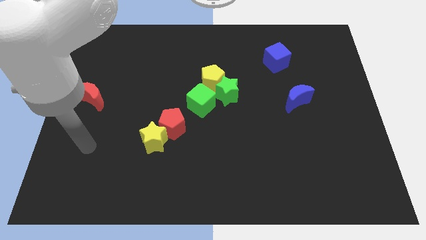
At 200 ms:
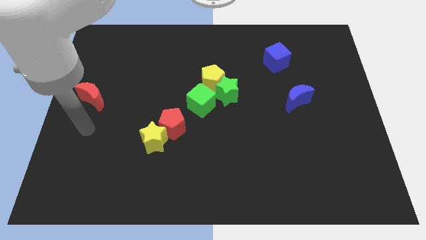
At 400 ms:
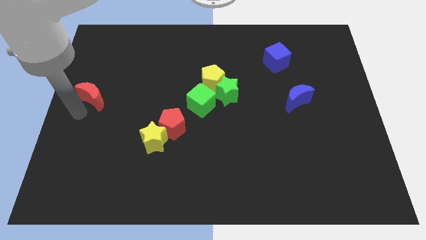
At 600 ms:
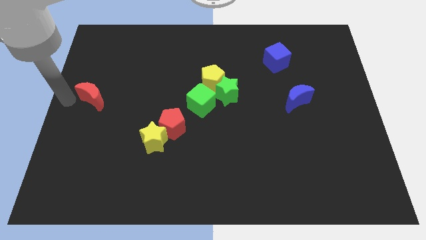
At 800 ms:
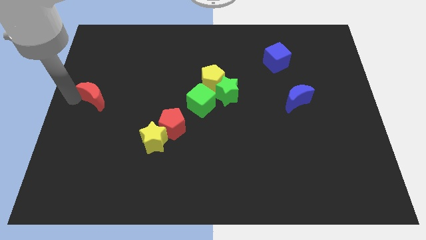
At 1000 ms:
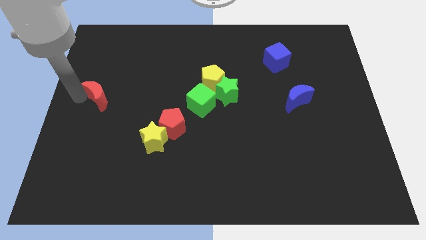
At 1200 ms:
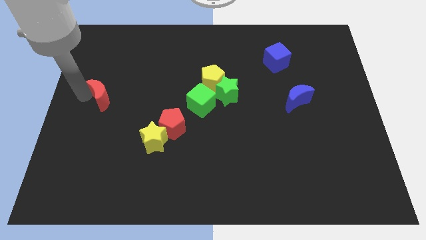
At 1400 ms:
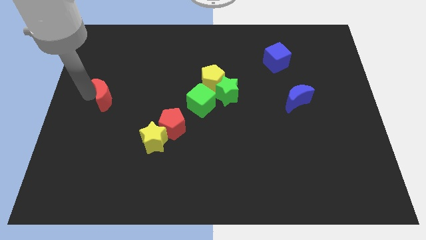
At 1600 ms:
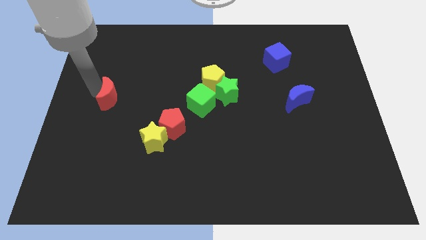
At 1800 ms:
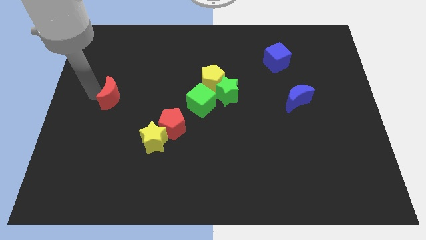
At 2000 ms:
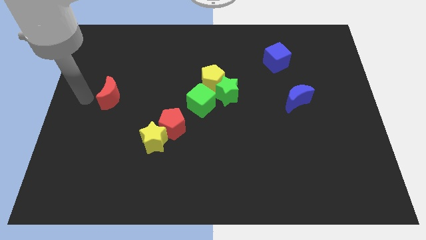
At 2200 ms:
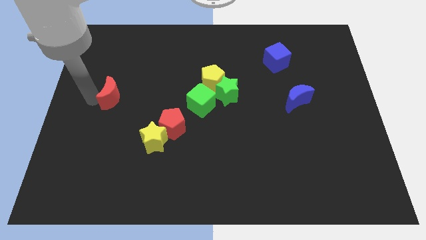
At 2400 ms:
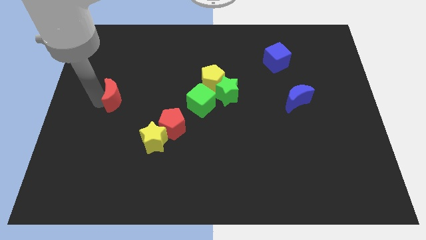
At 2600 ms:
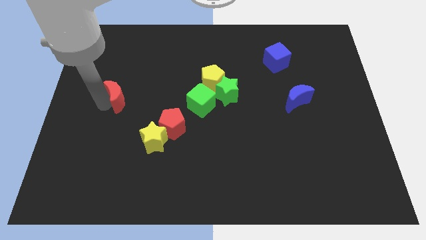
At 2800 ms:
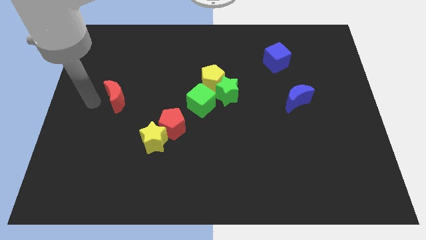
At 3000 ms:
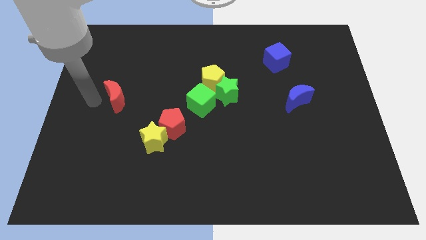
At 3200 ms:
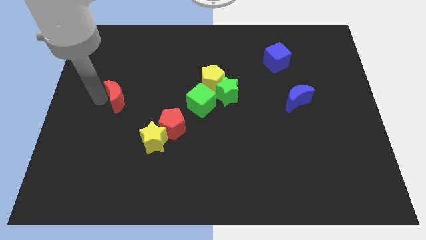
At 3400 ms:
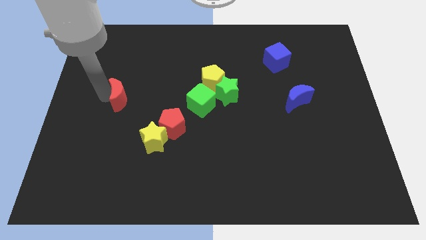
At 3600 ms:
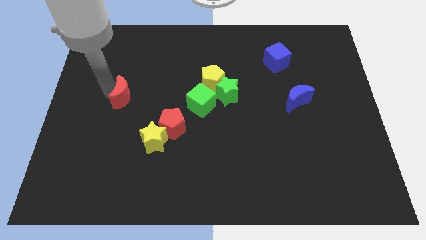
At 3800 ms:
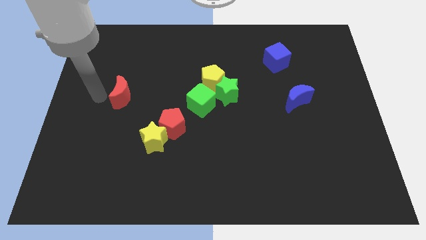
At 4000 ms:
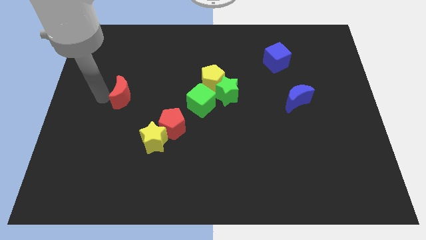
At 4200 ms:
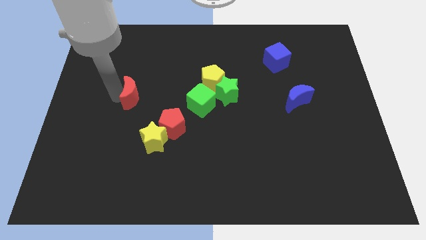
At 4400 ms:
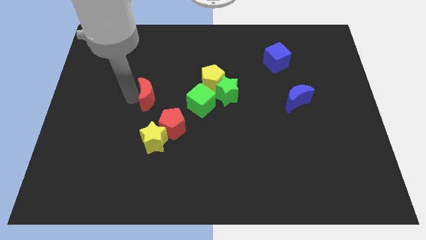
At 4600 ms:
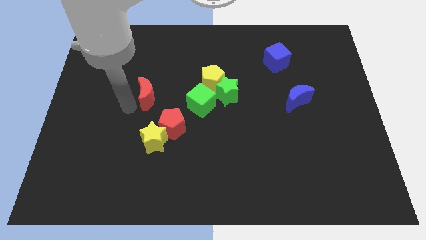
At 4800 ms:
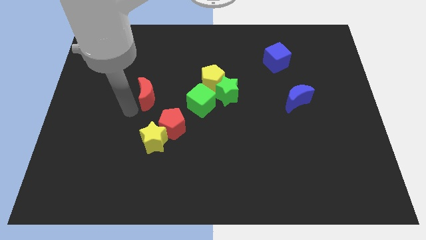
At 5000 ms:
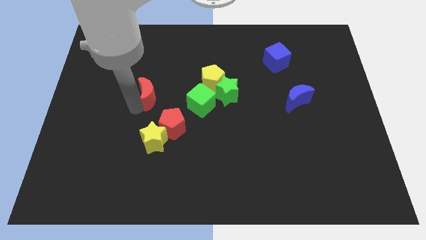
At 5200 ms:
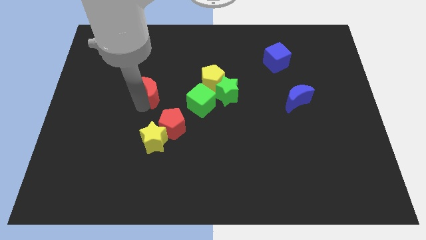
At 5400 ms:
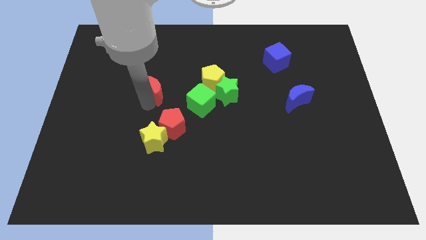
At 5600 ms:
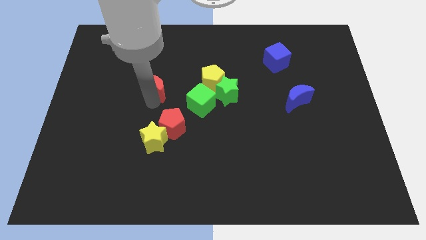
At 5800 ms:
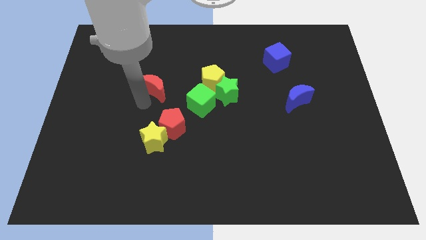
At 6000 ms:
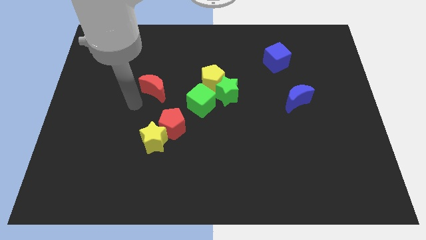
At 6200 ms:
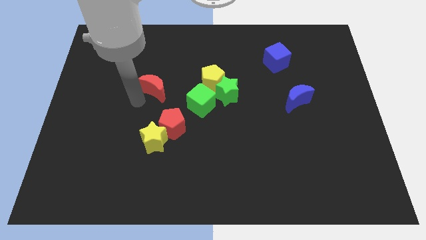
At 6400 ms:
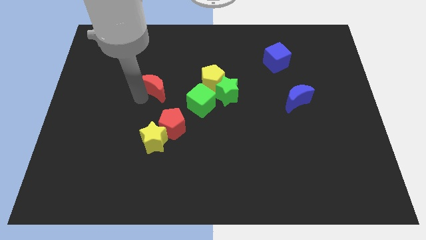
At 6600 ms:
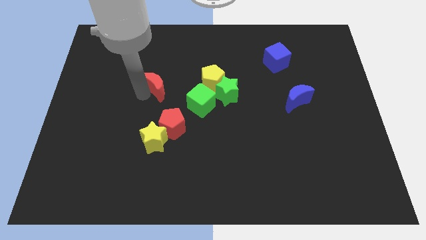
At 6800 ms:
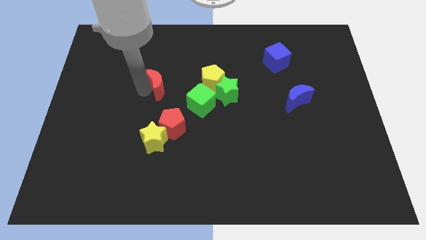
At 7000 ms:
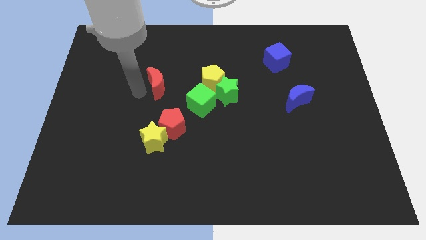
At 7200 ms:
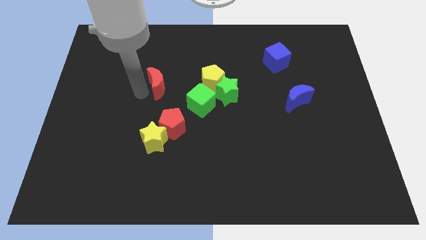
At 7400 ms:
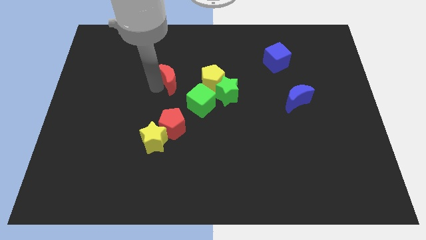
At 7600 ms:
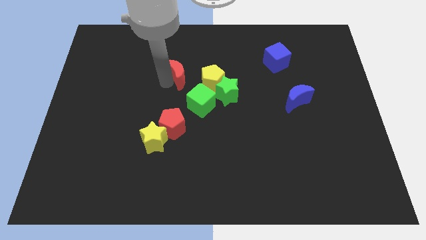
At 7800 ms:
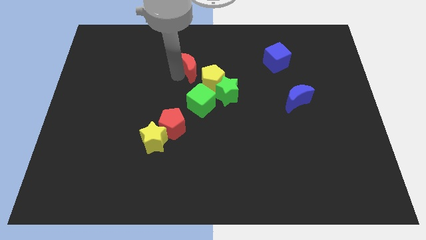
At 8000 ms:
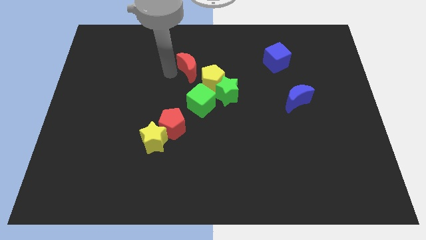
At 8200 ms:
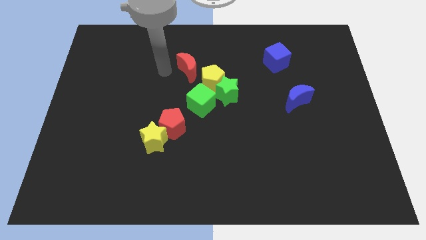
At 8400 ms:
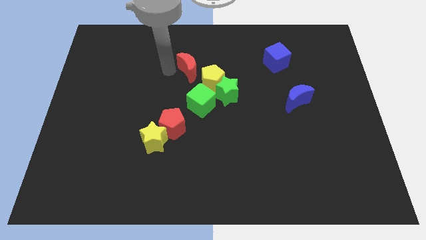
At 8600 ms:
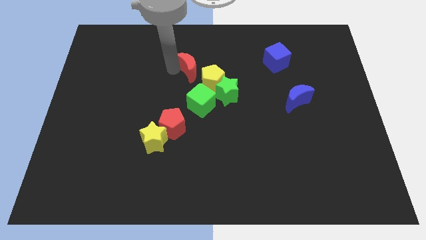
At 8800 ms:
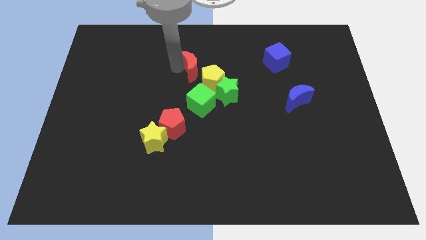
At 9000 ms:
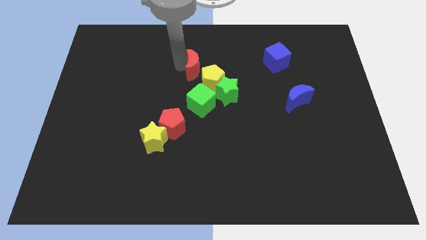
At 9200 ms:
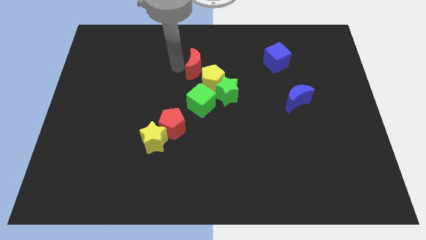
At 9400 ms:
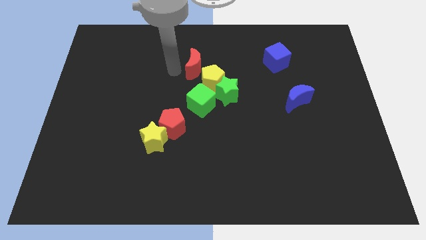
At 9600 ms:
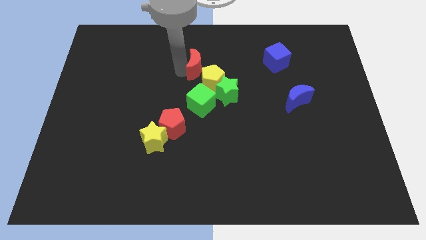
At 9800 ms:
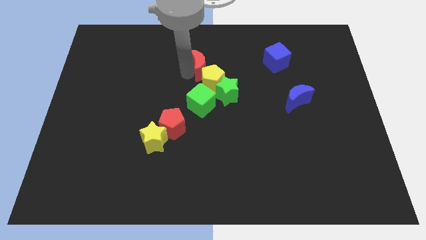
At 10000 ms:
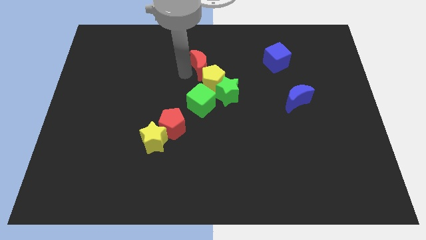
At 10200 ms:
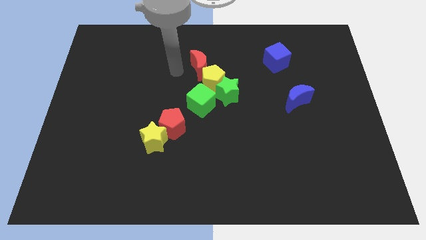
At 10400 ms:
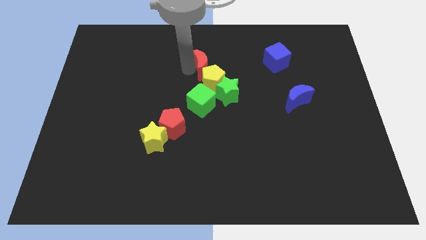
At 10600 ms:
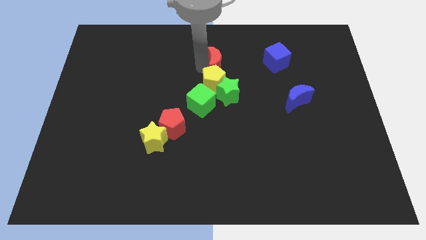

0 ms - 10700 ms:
move the red moon to the top of the green star

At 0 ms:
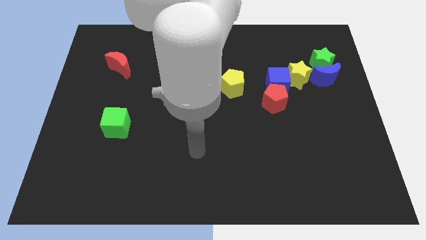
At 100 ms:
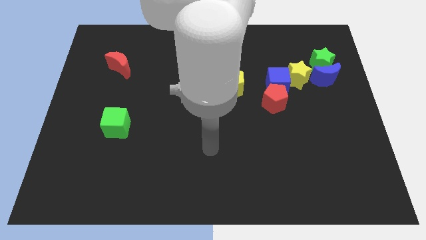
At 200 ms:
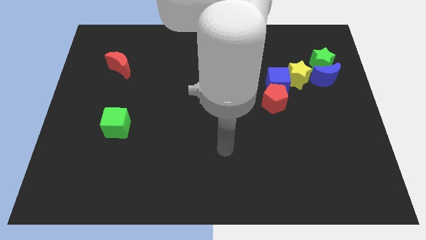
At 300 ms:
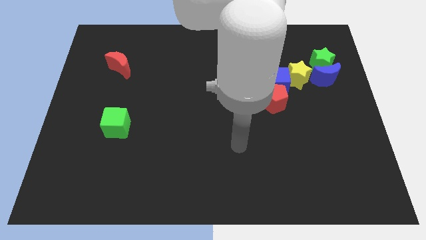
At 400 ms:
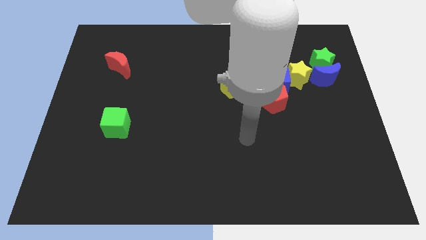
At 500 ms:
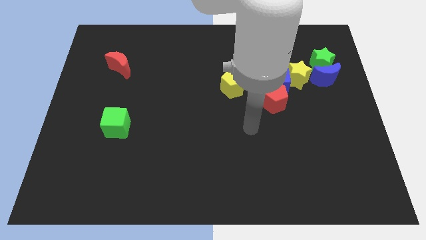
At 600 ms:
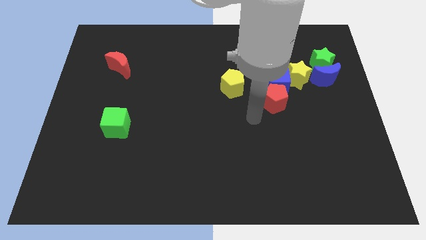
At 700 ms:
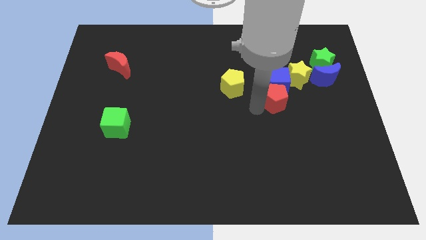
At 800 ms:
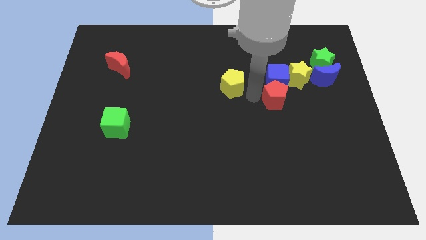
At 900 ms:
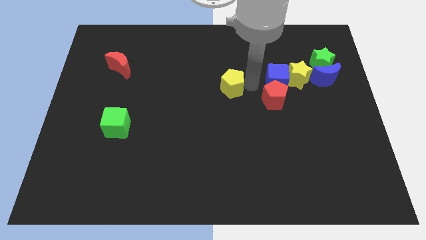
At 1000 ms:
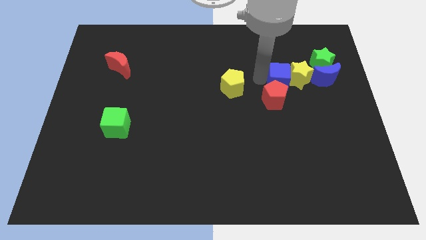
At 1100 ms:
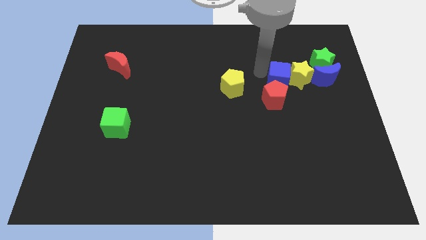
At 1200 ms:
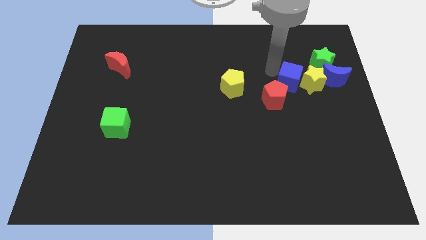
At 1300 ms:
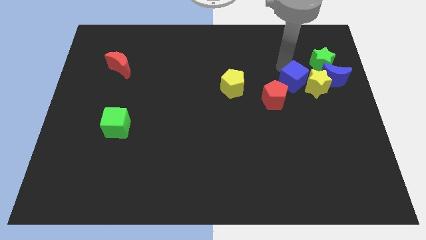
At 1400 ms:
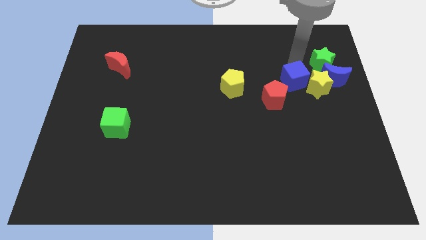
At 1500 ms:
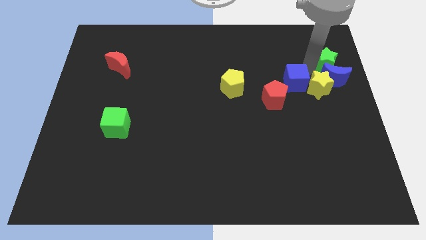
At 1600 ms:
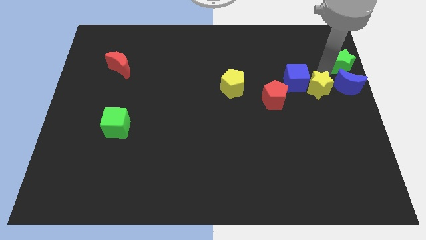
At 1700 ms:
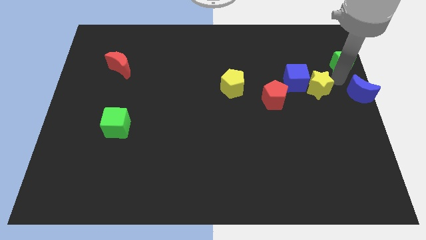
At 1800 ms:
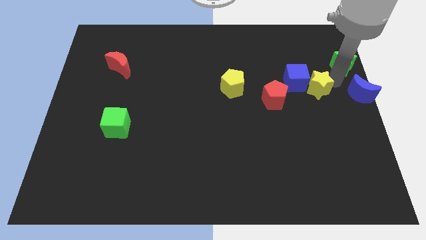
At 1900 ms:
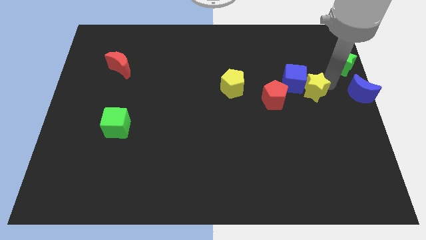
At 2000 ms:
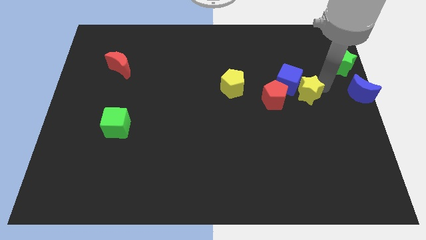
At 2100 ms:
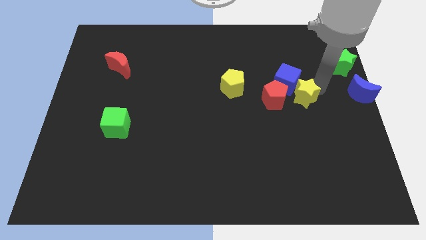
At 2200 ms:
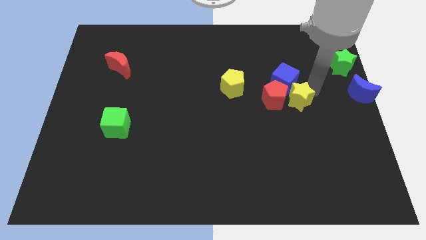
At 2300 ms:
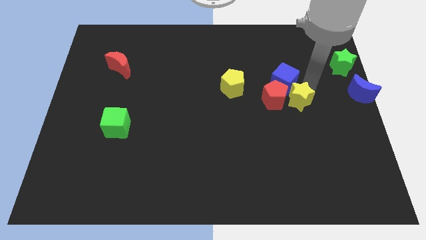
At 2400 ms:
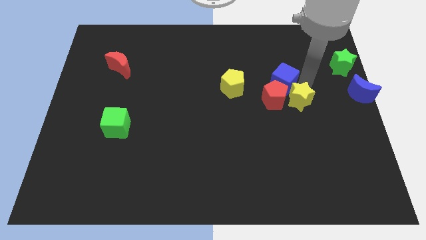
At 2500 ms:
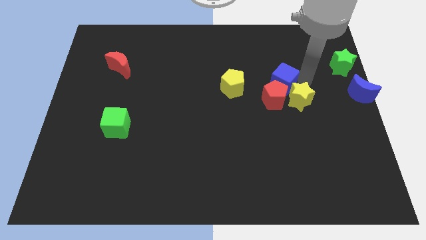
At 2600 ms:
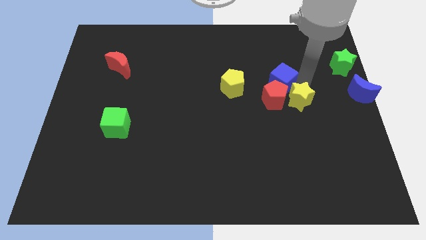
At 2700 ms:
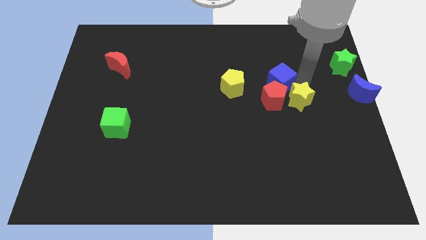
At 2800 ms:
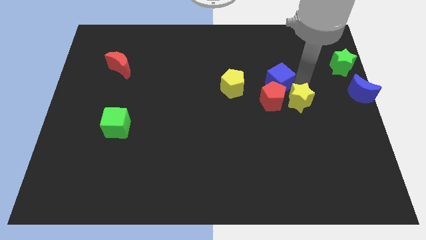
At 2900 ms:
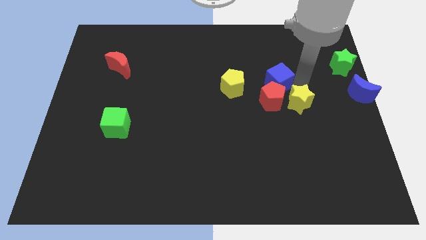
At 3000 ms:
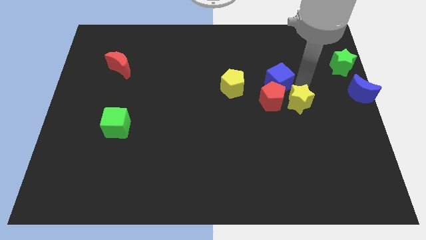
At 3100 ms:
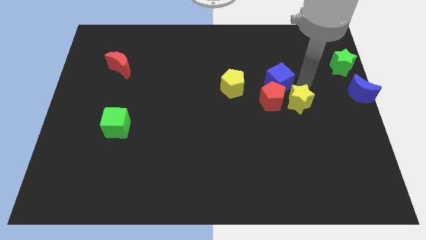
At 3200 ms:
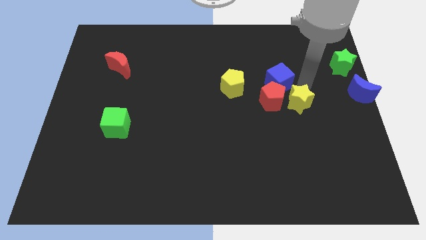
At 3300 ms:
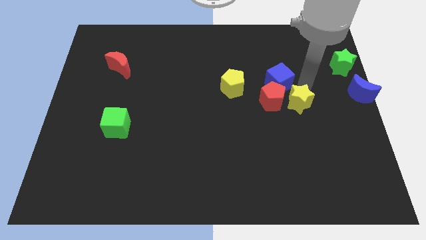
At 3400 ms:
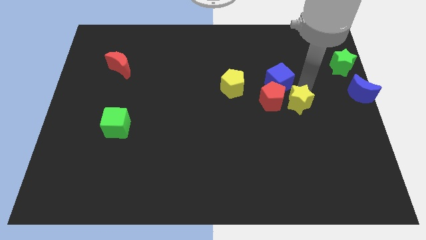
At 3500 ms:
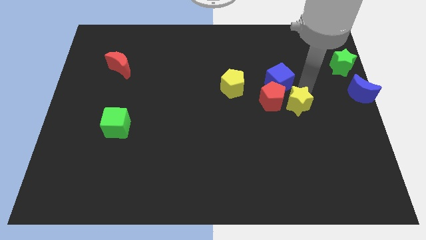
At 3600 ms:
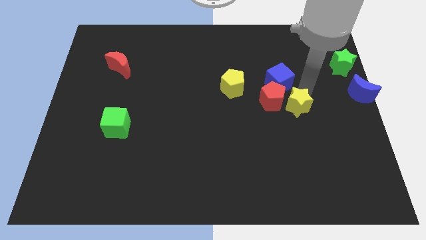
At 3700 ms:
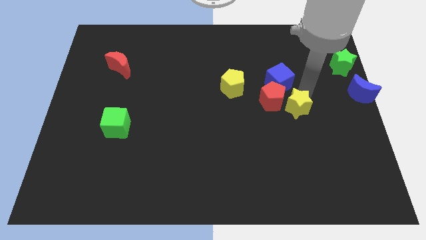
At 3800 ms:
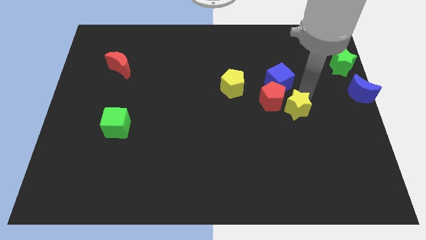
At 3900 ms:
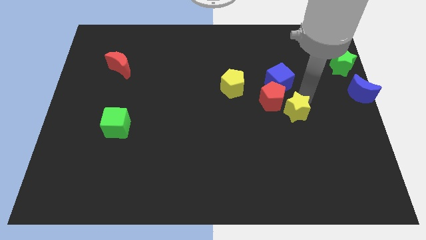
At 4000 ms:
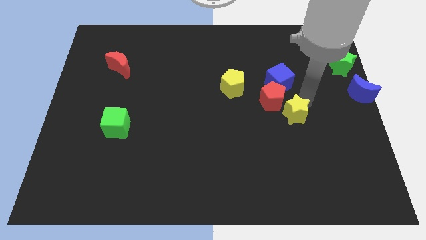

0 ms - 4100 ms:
put the yellow star to the bottom of the red pentagon
